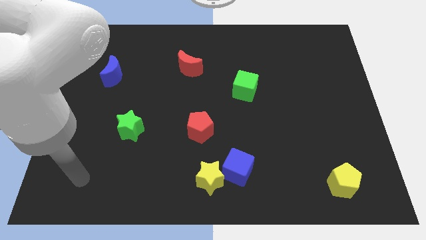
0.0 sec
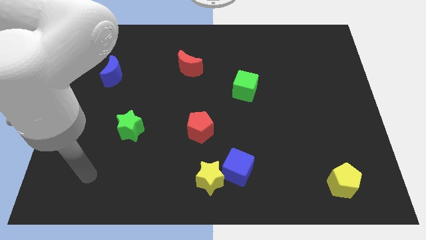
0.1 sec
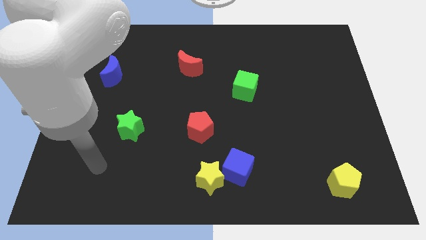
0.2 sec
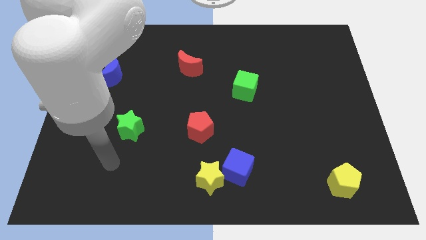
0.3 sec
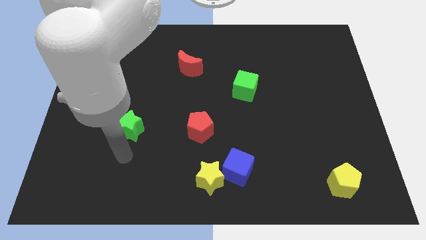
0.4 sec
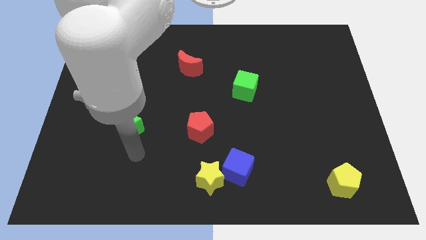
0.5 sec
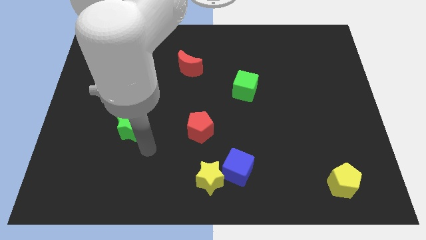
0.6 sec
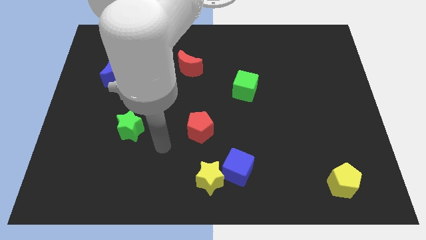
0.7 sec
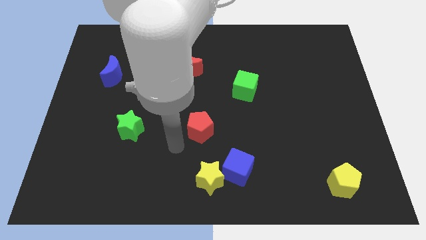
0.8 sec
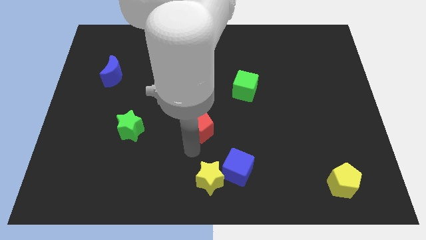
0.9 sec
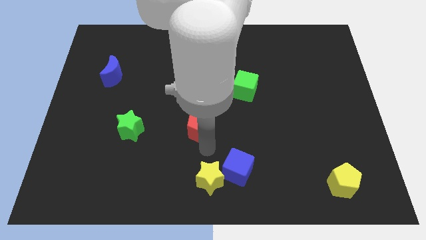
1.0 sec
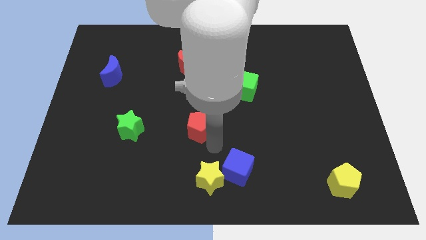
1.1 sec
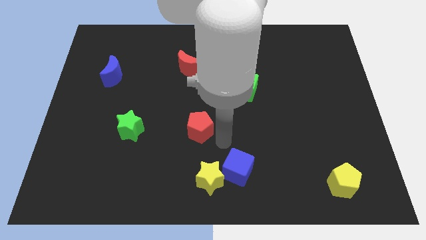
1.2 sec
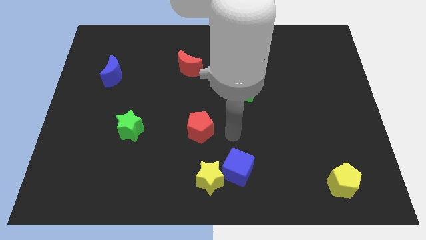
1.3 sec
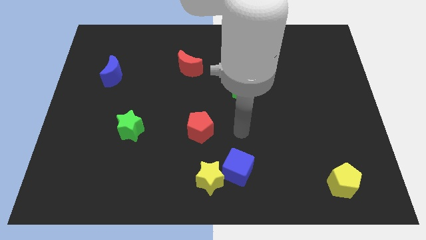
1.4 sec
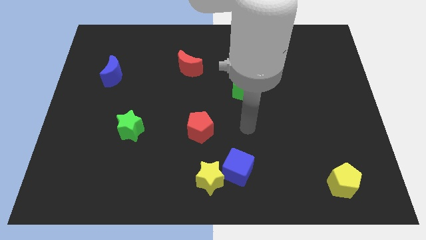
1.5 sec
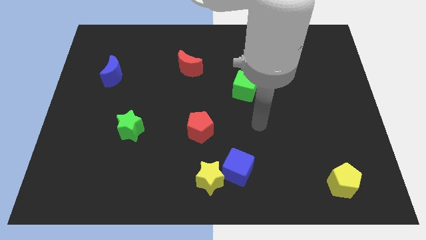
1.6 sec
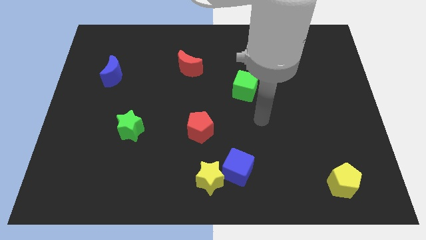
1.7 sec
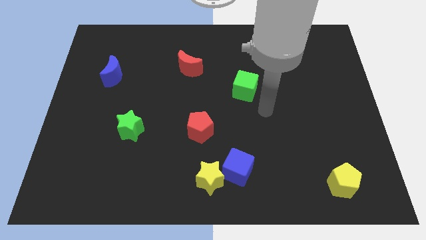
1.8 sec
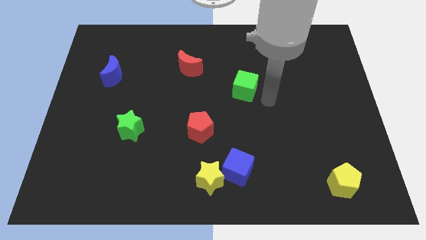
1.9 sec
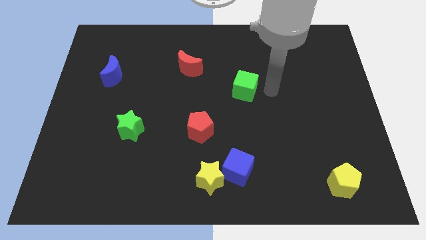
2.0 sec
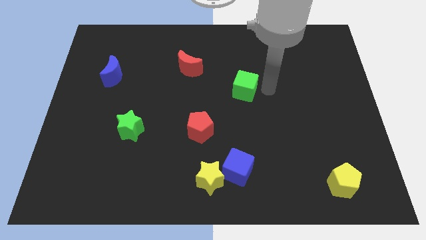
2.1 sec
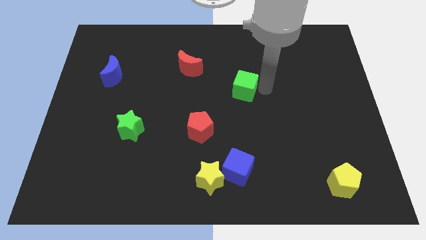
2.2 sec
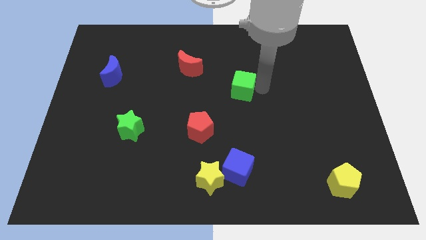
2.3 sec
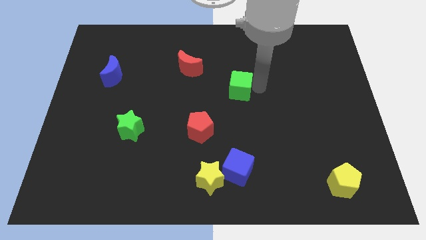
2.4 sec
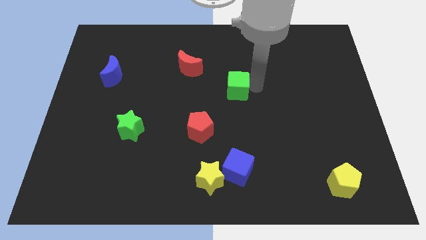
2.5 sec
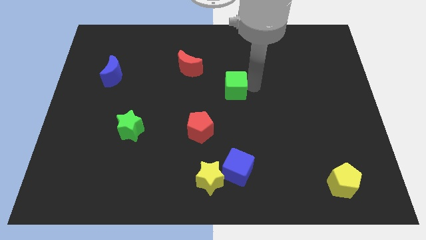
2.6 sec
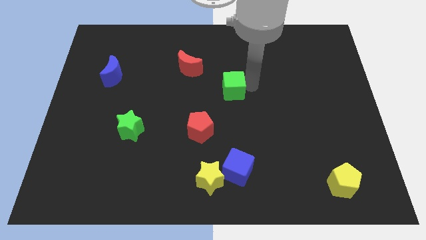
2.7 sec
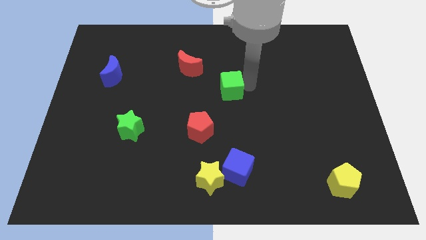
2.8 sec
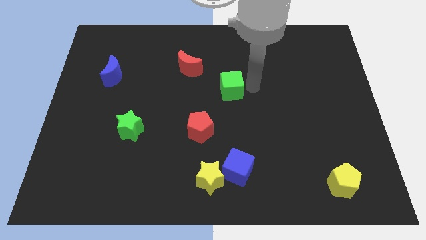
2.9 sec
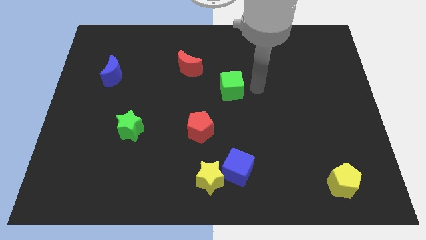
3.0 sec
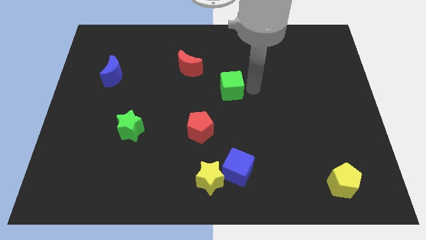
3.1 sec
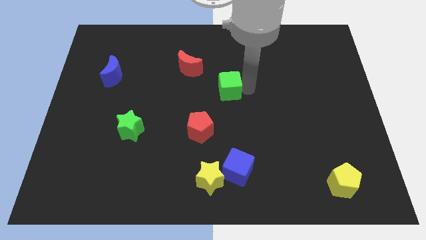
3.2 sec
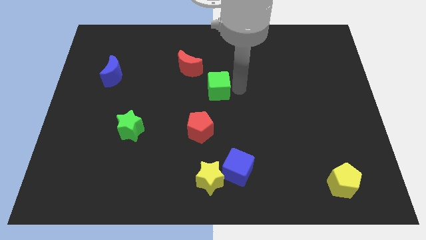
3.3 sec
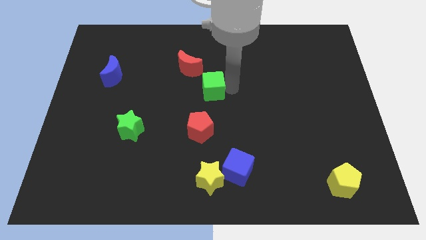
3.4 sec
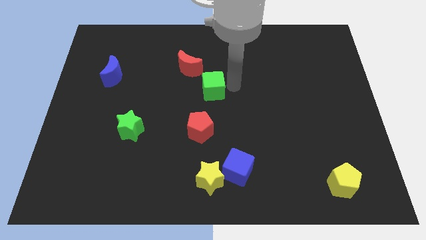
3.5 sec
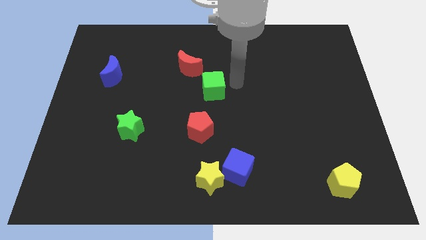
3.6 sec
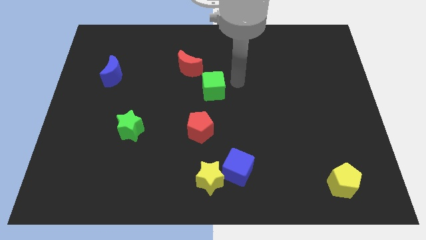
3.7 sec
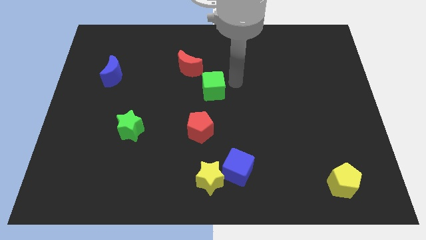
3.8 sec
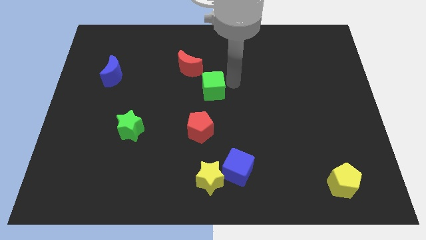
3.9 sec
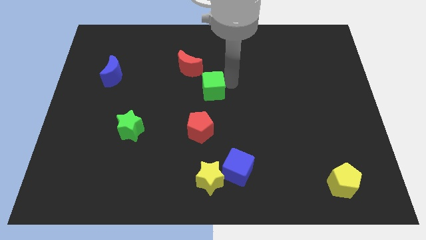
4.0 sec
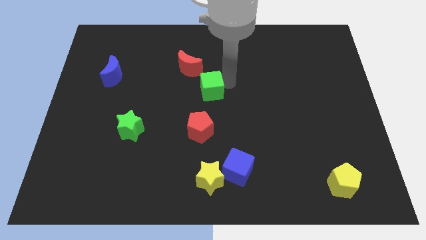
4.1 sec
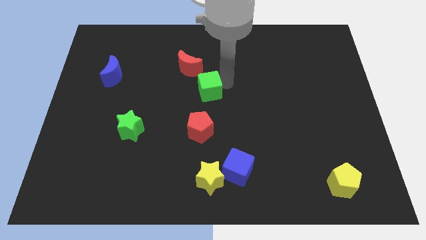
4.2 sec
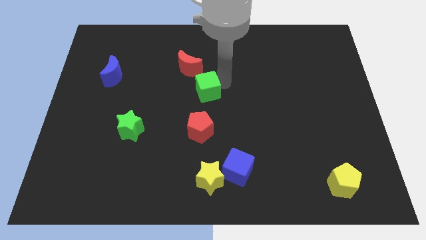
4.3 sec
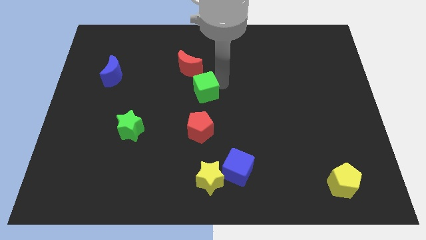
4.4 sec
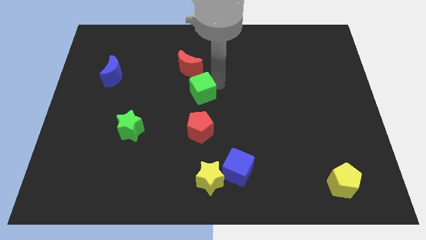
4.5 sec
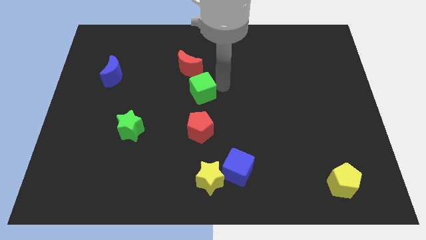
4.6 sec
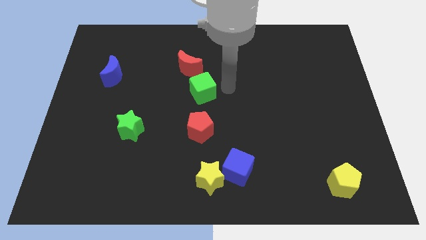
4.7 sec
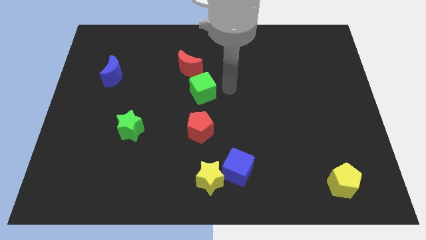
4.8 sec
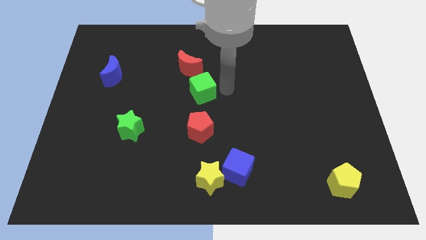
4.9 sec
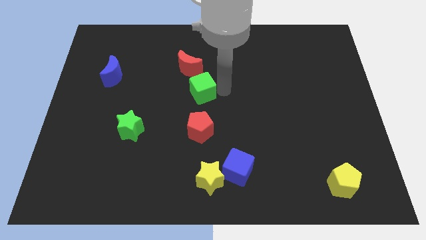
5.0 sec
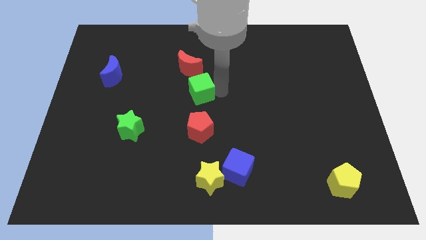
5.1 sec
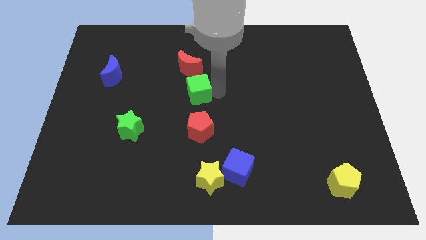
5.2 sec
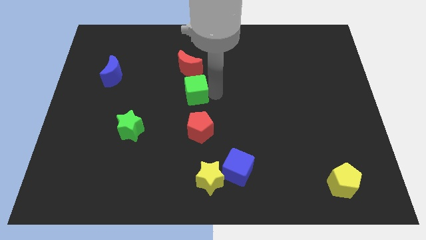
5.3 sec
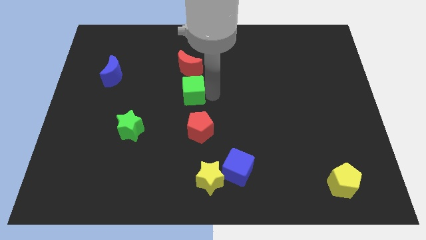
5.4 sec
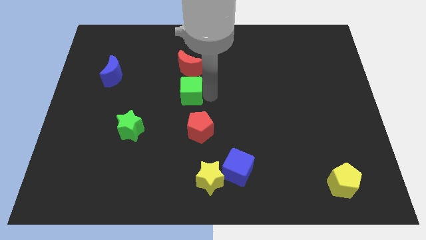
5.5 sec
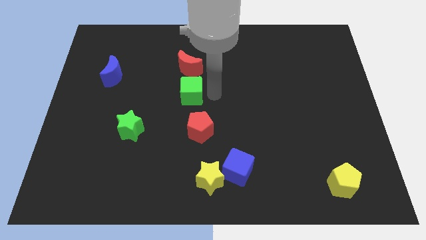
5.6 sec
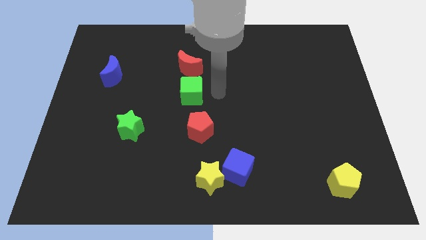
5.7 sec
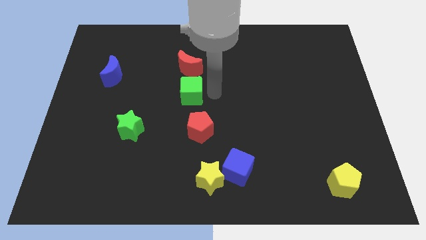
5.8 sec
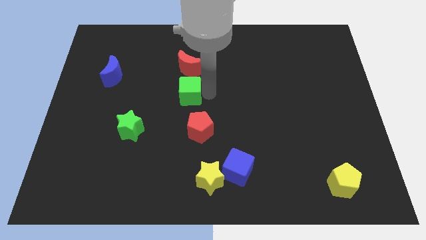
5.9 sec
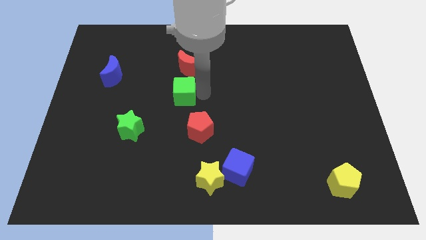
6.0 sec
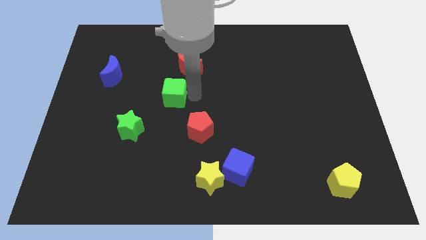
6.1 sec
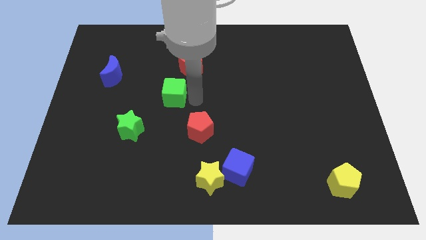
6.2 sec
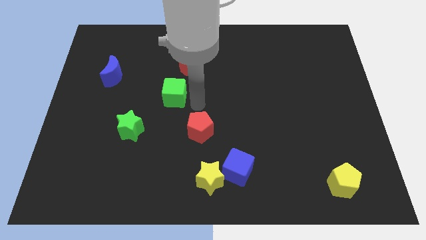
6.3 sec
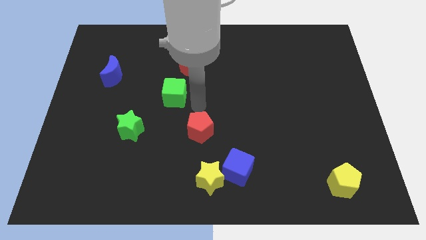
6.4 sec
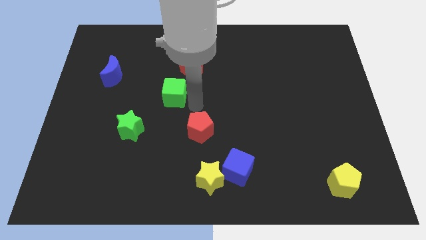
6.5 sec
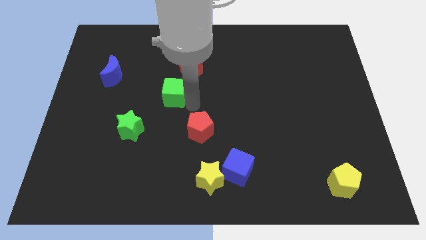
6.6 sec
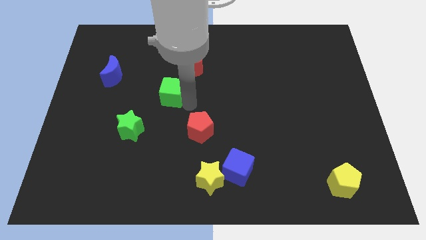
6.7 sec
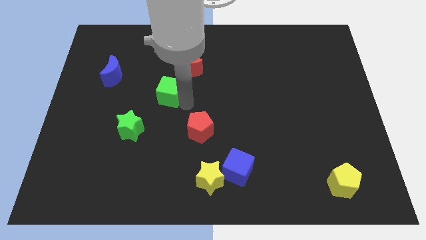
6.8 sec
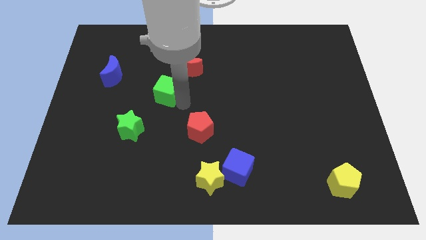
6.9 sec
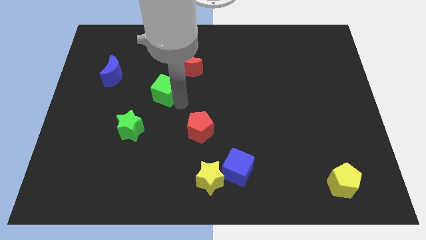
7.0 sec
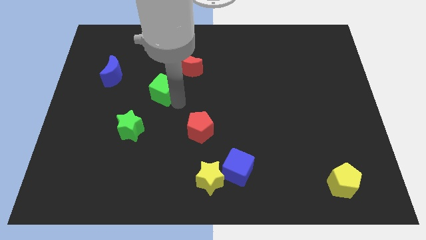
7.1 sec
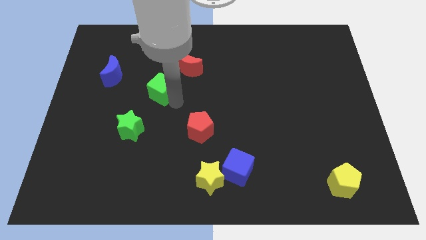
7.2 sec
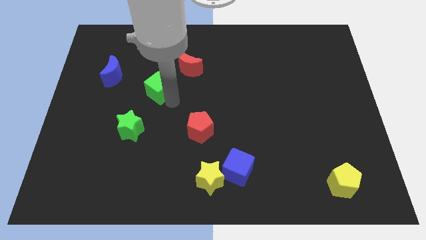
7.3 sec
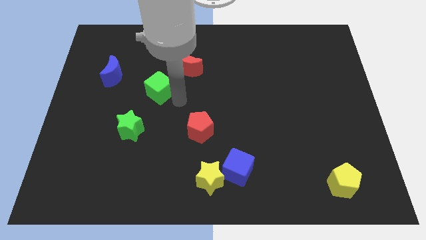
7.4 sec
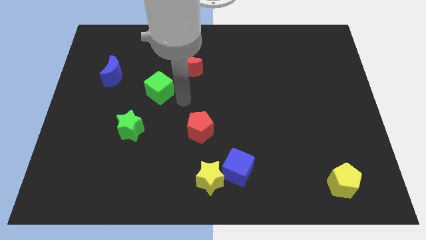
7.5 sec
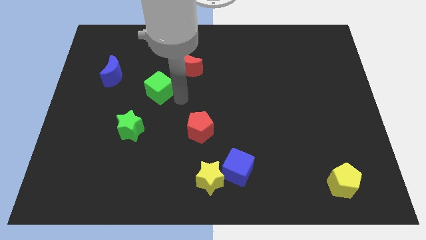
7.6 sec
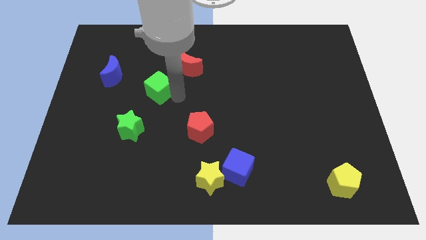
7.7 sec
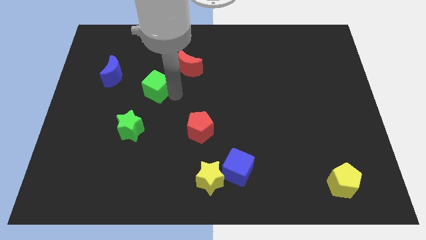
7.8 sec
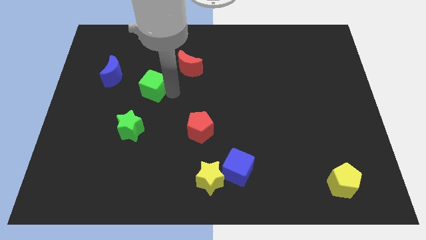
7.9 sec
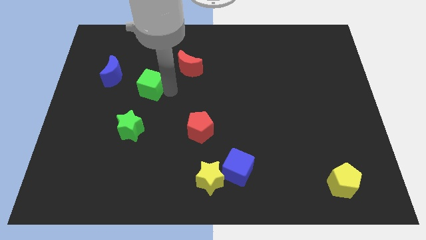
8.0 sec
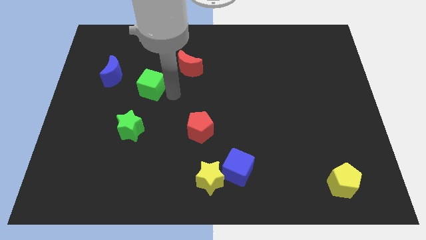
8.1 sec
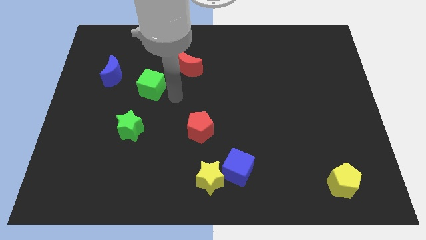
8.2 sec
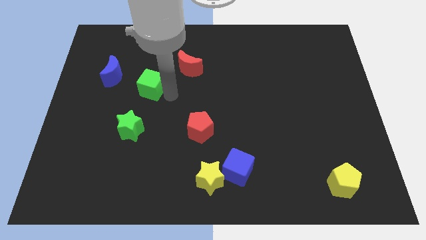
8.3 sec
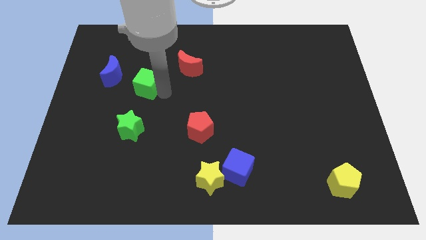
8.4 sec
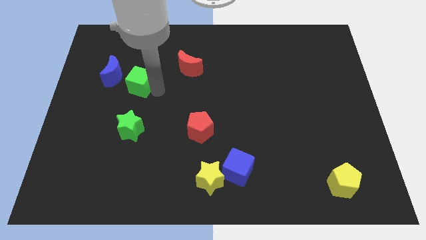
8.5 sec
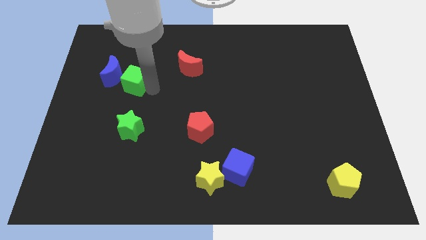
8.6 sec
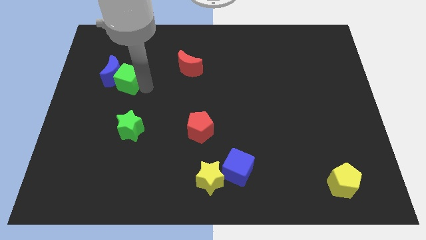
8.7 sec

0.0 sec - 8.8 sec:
move the green cube close to the blue moon
